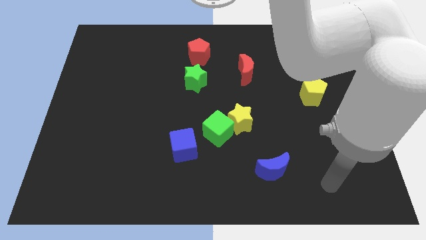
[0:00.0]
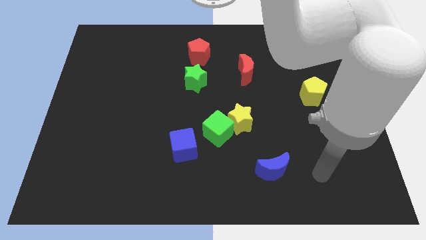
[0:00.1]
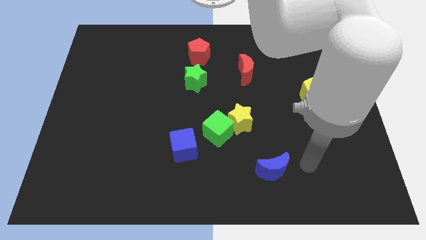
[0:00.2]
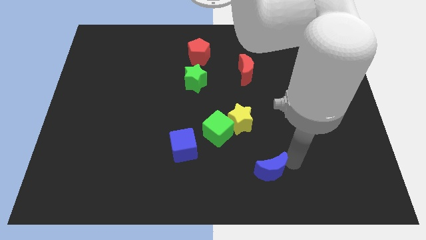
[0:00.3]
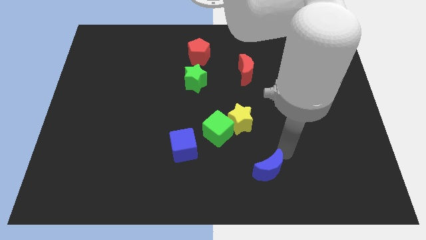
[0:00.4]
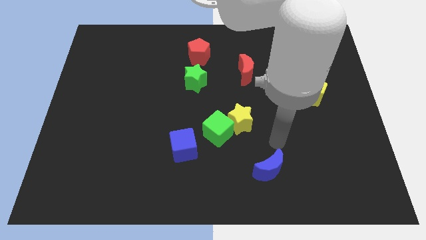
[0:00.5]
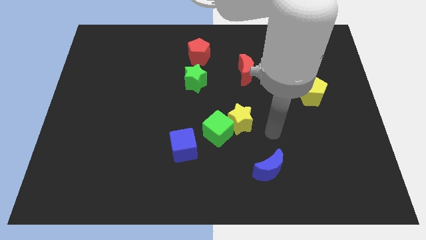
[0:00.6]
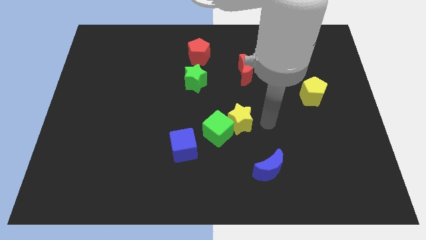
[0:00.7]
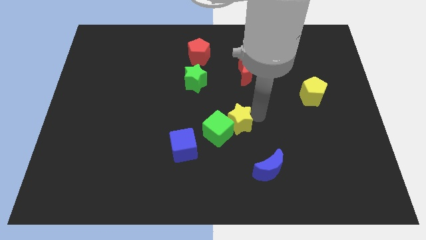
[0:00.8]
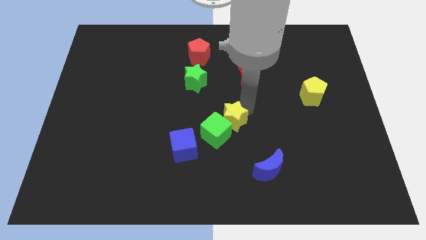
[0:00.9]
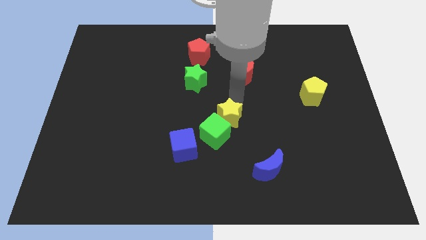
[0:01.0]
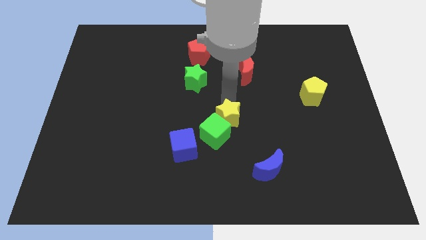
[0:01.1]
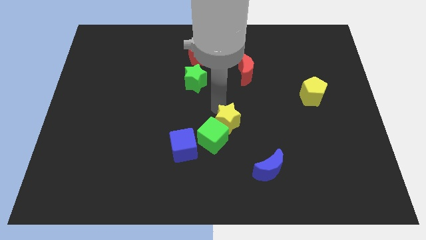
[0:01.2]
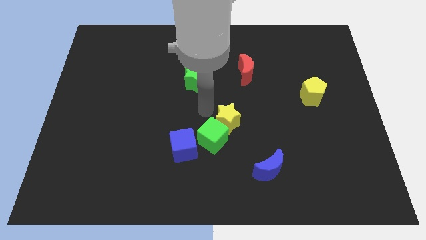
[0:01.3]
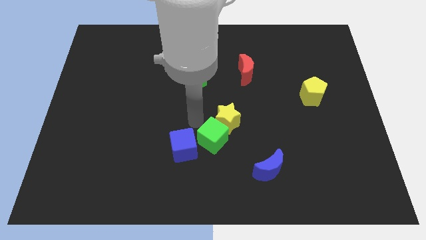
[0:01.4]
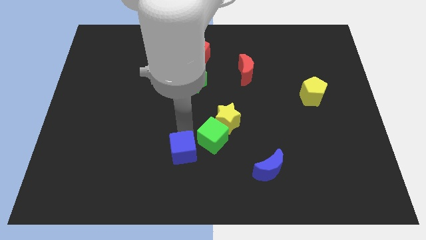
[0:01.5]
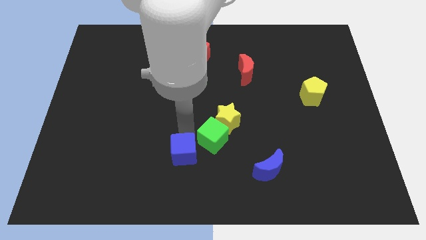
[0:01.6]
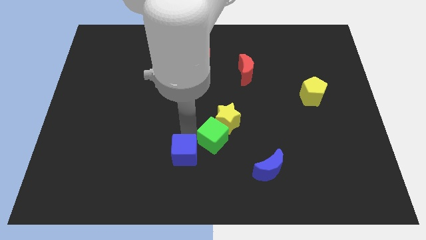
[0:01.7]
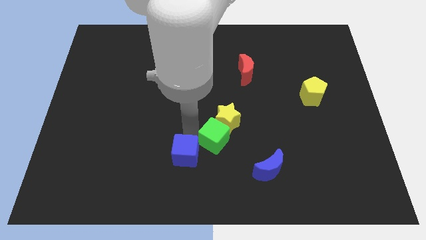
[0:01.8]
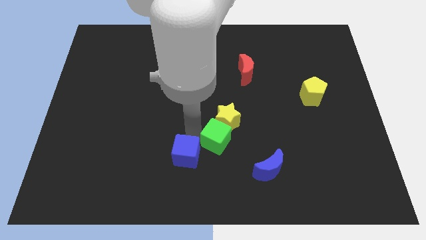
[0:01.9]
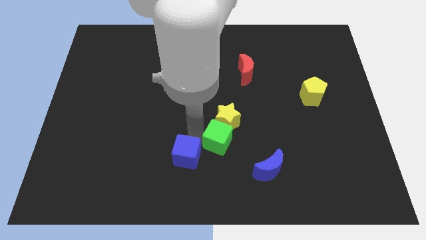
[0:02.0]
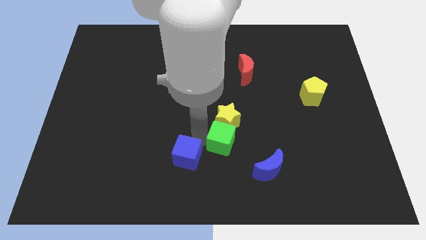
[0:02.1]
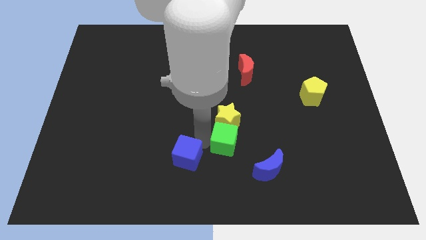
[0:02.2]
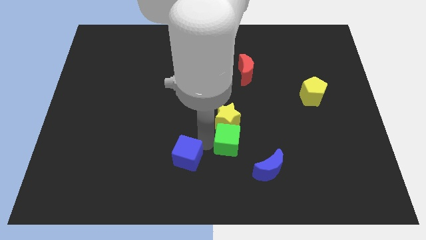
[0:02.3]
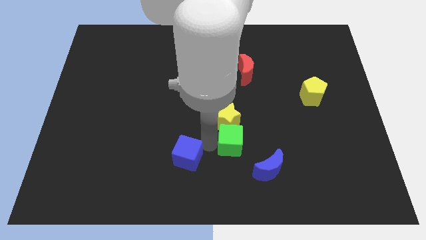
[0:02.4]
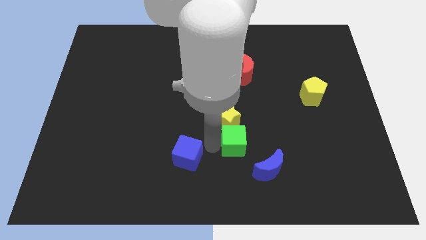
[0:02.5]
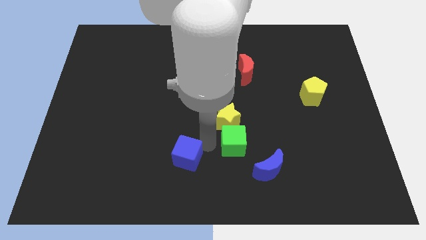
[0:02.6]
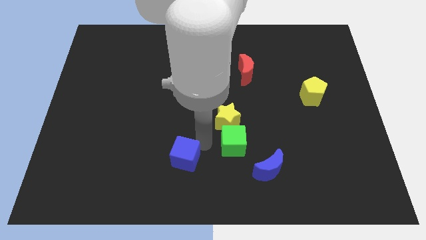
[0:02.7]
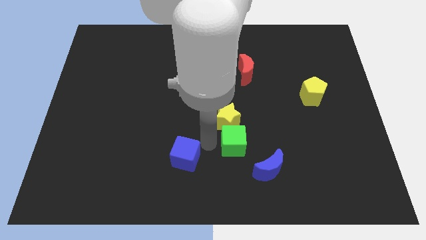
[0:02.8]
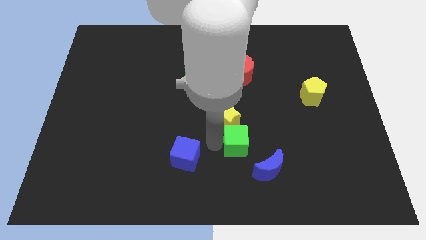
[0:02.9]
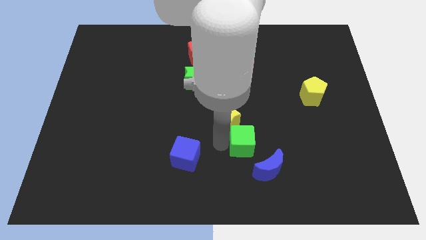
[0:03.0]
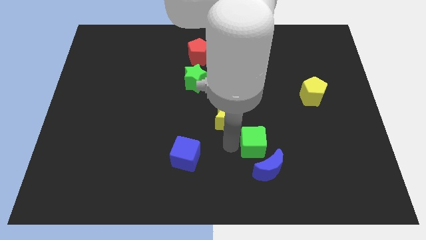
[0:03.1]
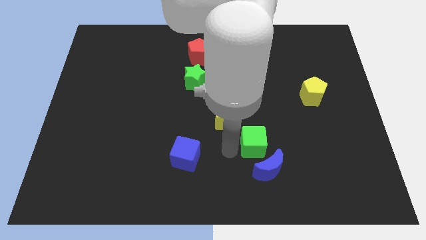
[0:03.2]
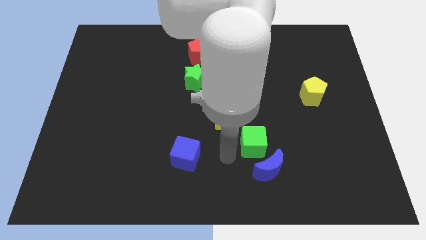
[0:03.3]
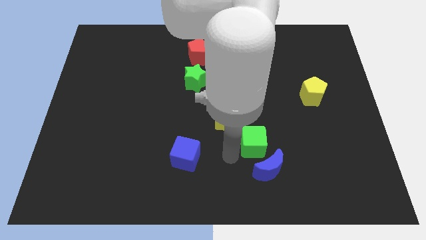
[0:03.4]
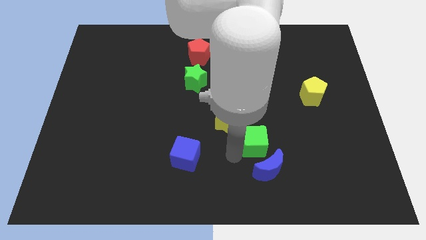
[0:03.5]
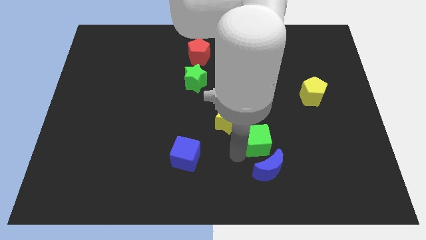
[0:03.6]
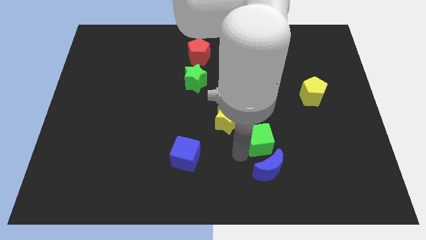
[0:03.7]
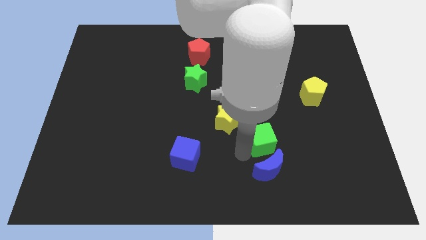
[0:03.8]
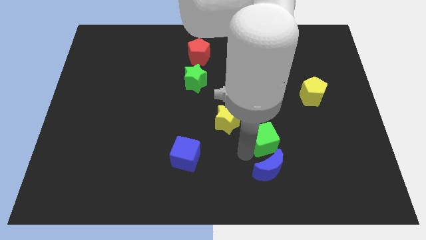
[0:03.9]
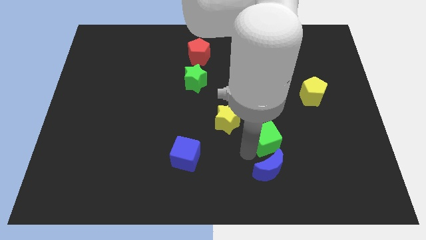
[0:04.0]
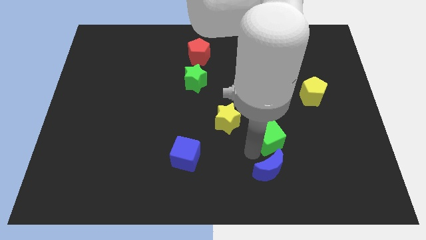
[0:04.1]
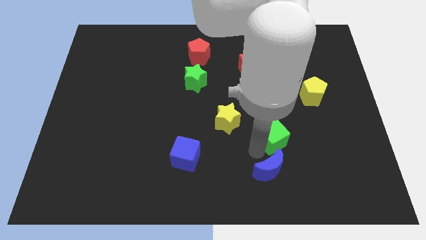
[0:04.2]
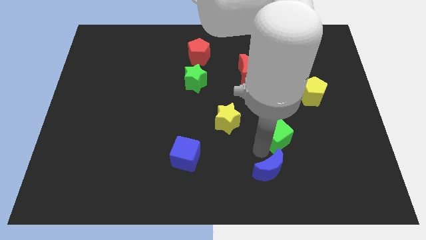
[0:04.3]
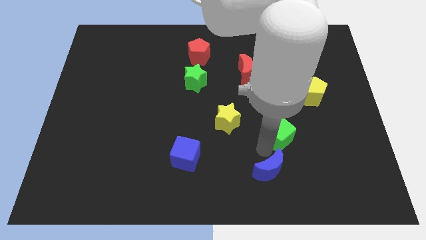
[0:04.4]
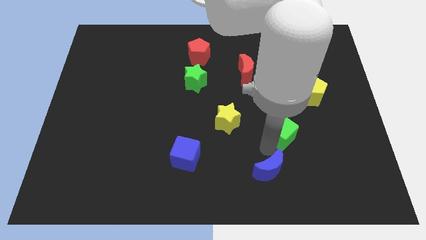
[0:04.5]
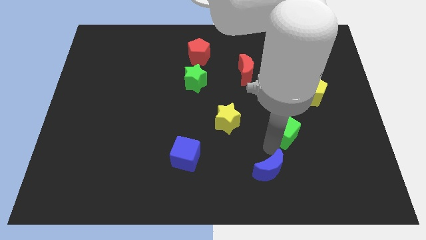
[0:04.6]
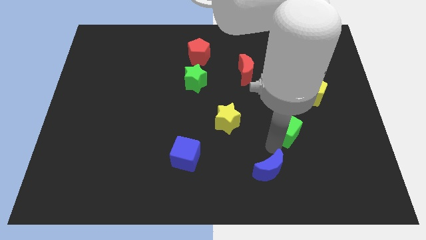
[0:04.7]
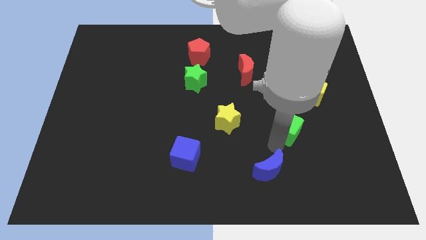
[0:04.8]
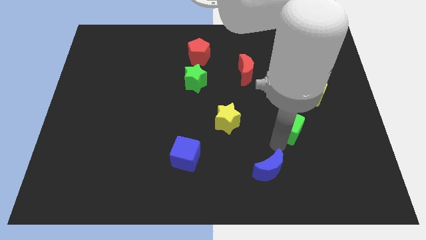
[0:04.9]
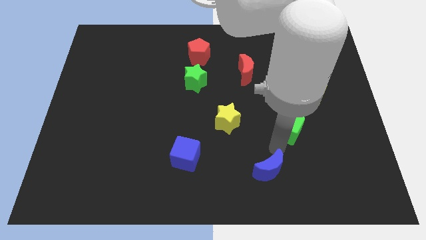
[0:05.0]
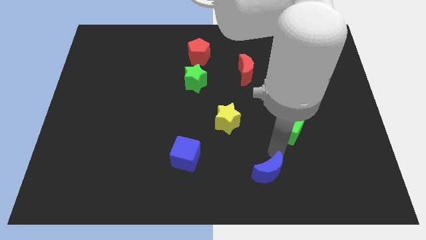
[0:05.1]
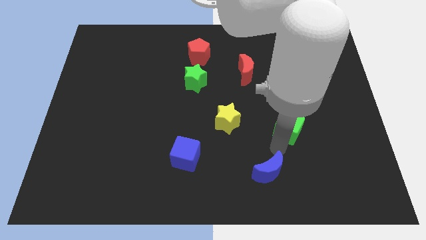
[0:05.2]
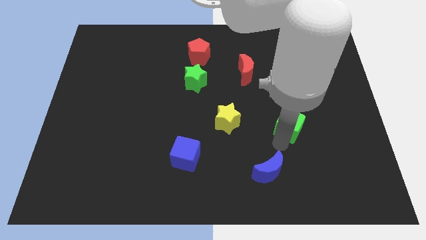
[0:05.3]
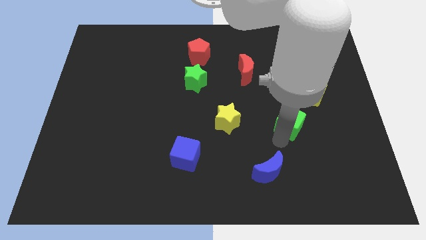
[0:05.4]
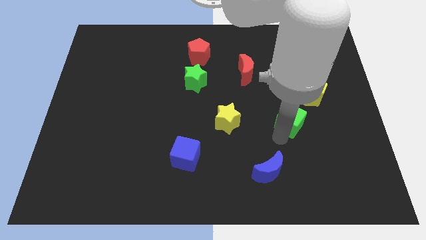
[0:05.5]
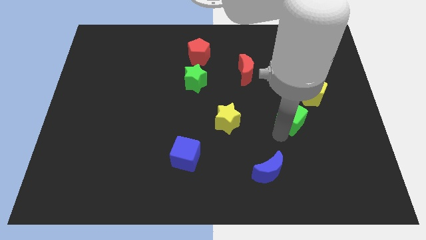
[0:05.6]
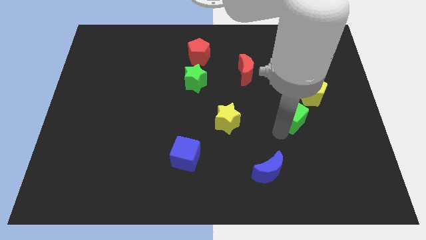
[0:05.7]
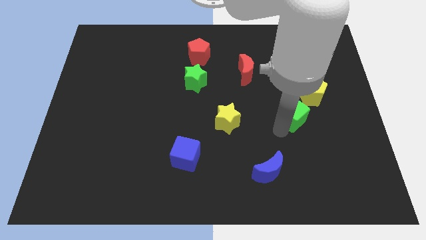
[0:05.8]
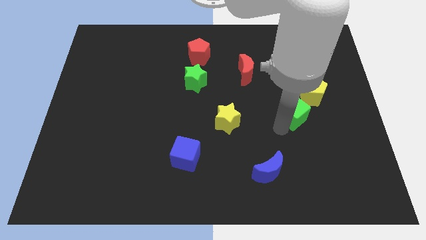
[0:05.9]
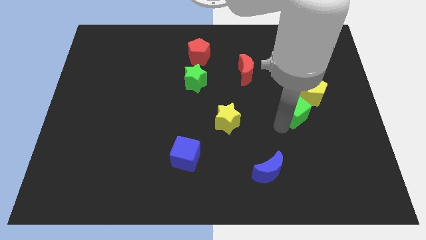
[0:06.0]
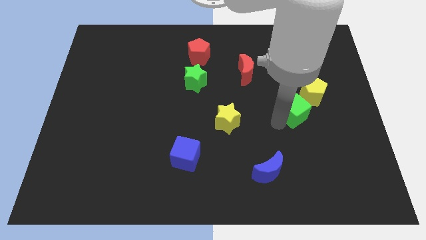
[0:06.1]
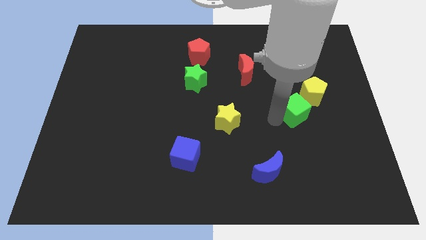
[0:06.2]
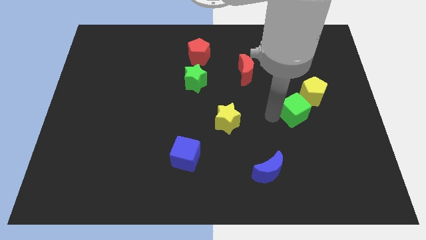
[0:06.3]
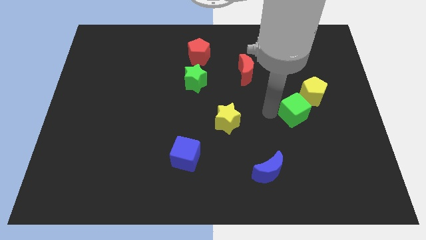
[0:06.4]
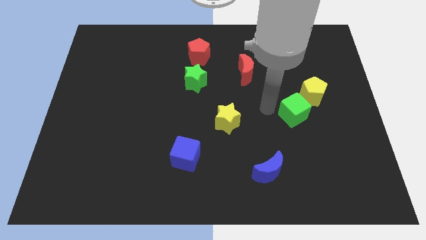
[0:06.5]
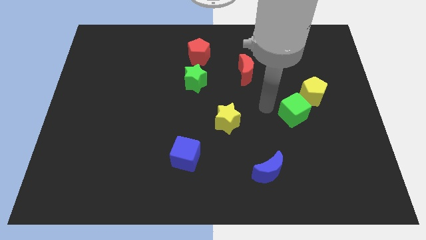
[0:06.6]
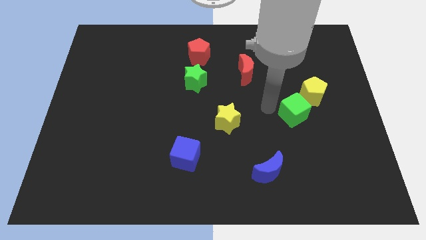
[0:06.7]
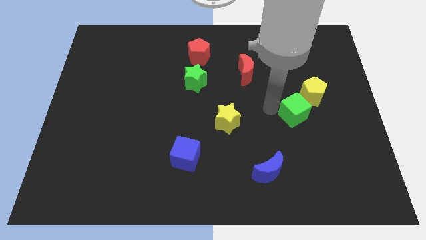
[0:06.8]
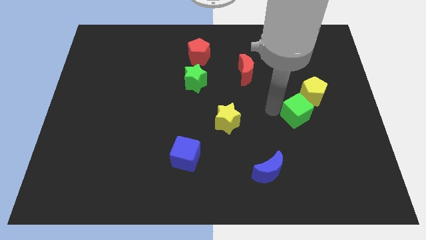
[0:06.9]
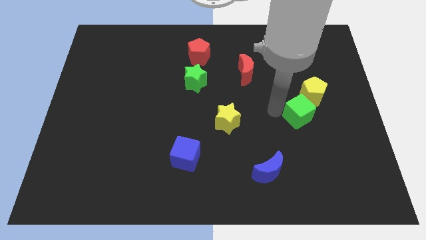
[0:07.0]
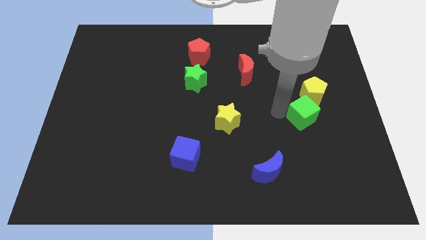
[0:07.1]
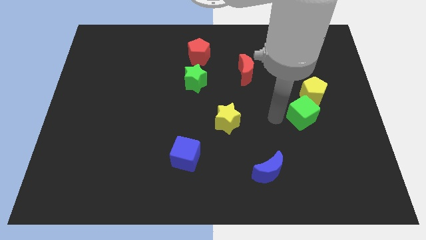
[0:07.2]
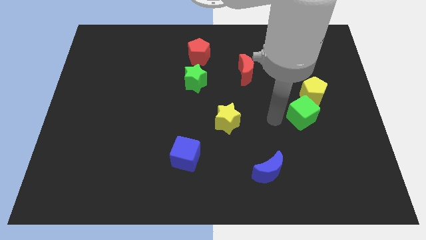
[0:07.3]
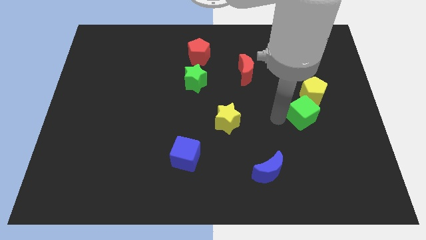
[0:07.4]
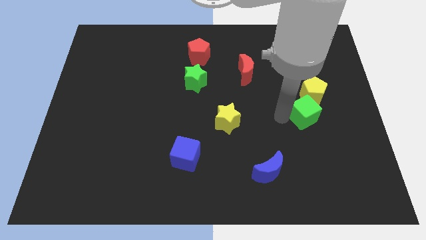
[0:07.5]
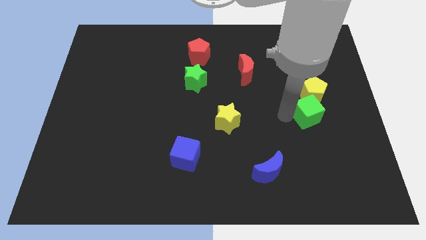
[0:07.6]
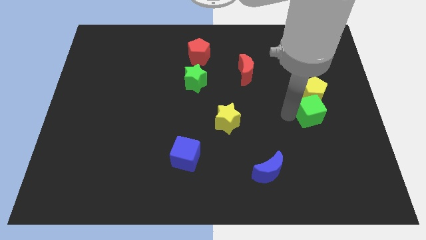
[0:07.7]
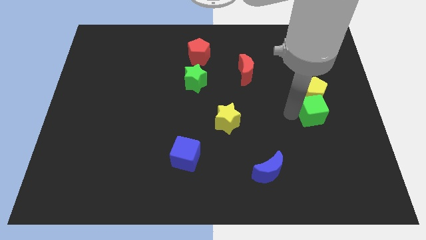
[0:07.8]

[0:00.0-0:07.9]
put the green cube to the bottom right side of the yellow pentagon
